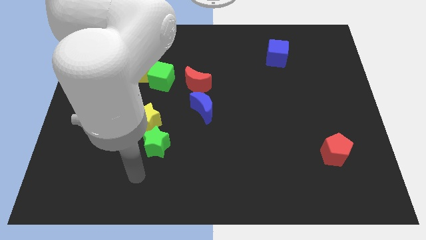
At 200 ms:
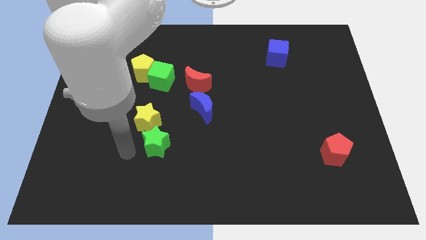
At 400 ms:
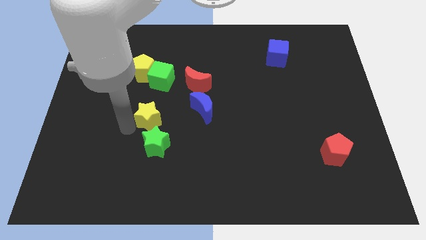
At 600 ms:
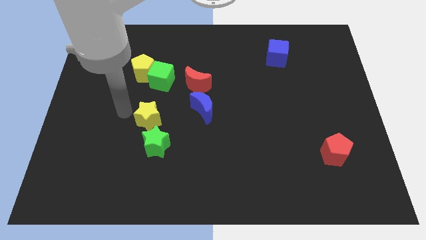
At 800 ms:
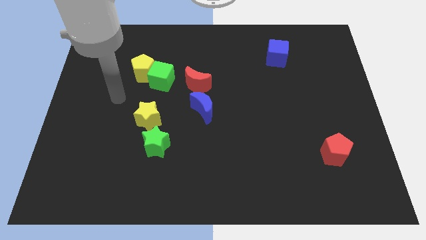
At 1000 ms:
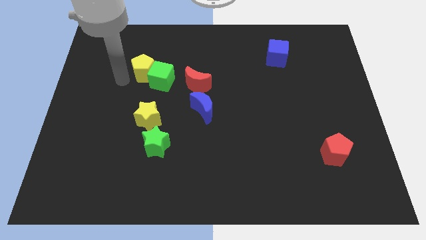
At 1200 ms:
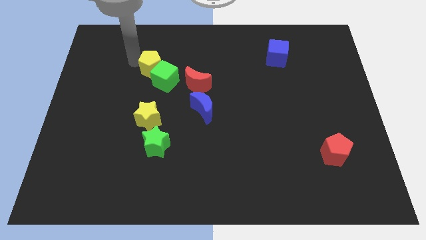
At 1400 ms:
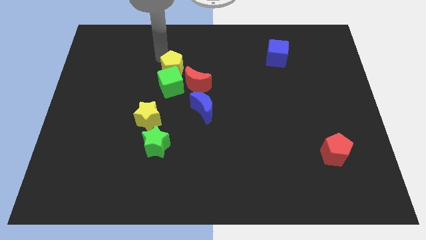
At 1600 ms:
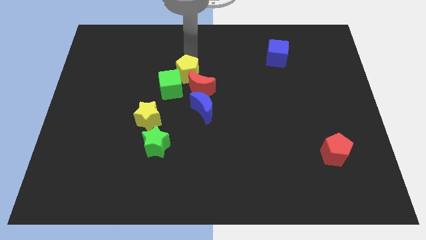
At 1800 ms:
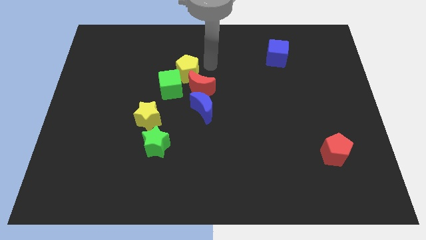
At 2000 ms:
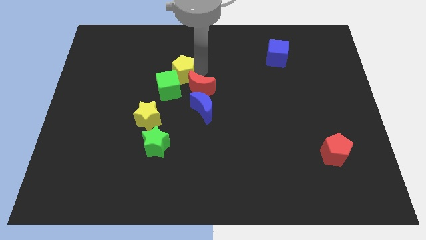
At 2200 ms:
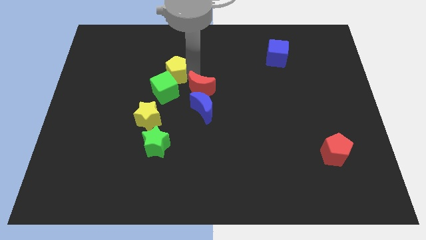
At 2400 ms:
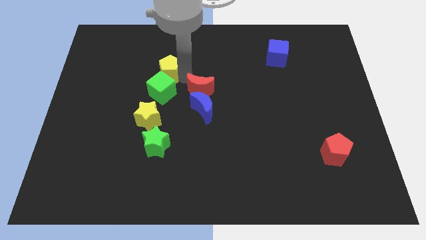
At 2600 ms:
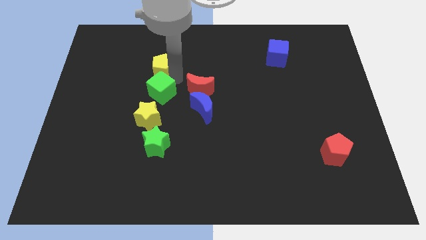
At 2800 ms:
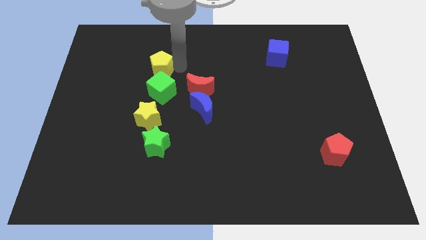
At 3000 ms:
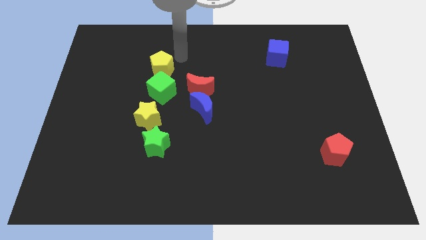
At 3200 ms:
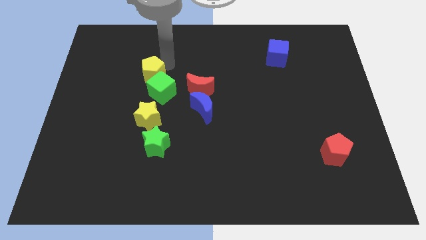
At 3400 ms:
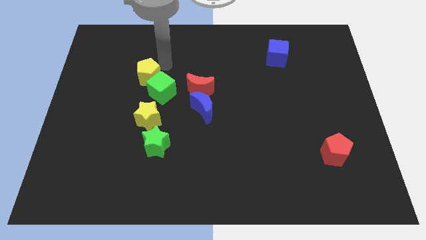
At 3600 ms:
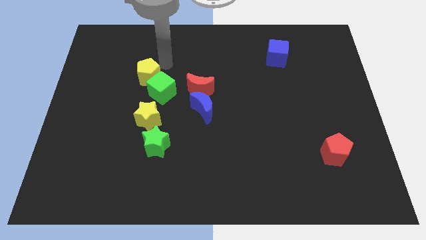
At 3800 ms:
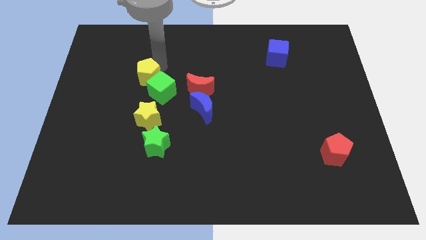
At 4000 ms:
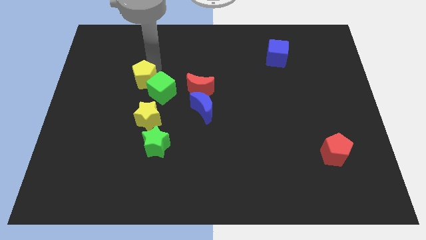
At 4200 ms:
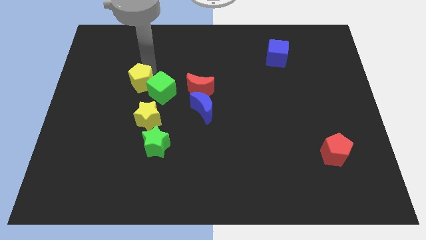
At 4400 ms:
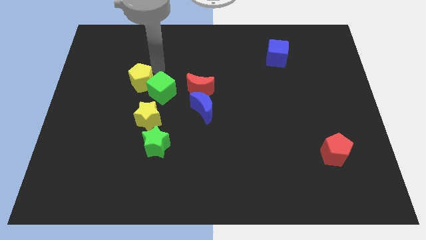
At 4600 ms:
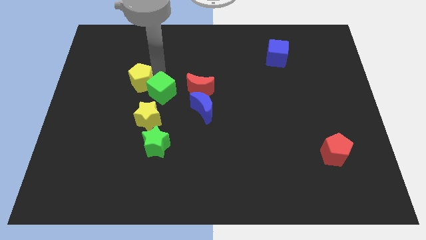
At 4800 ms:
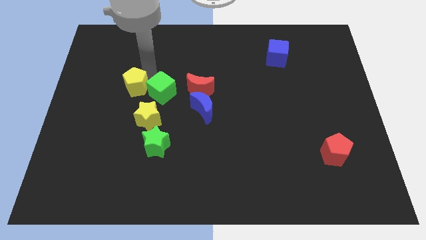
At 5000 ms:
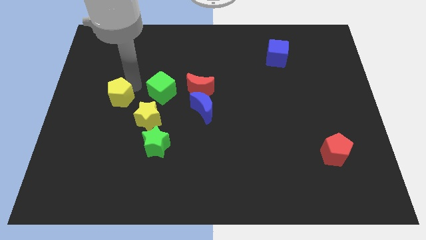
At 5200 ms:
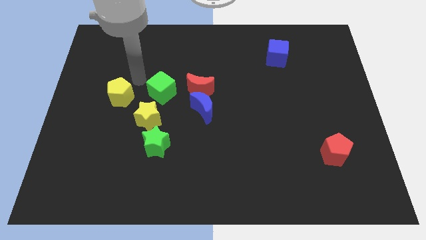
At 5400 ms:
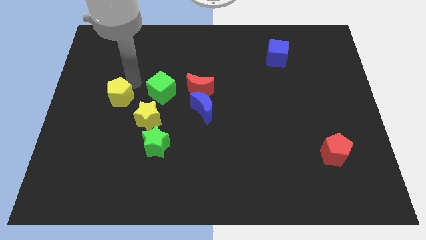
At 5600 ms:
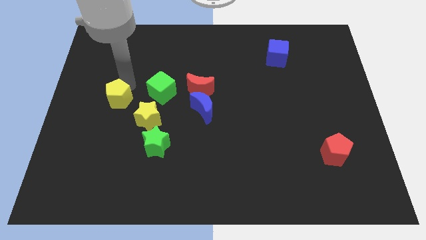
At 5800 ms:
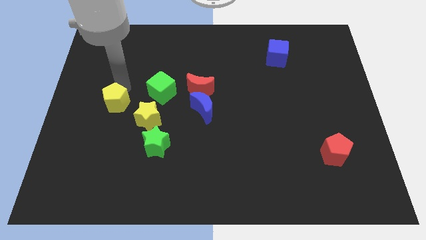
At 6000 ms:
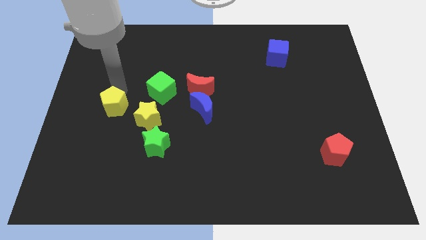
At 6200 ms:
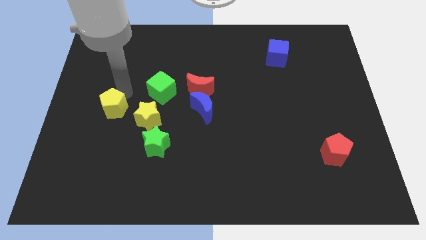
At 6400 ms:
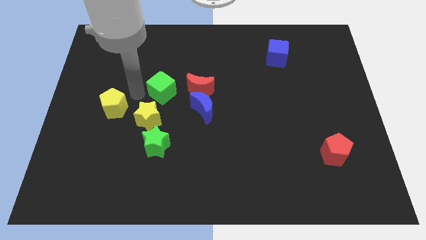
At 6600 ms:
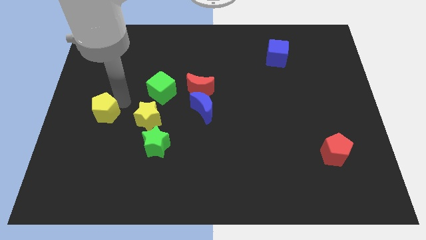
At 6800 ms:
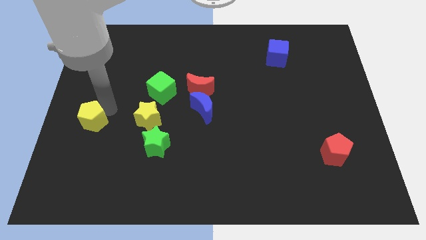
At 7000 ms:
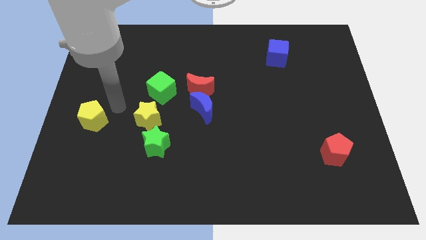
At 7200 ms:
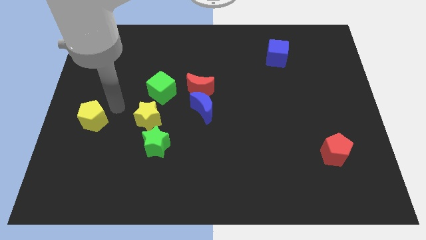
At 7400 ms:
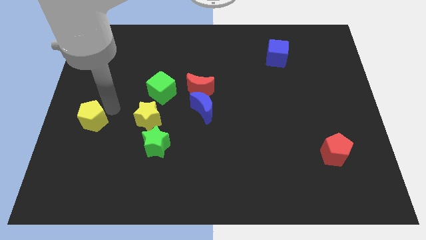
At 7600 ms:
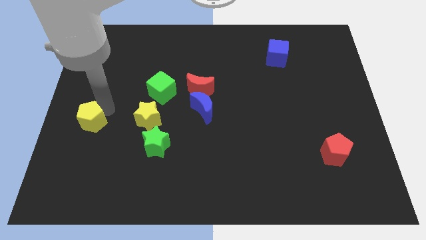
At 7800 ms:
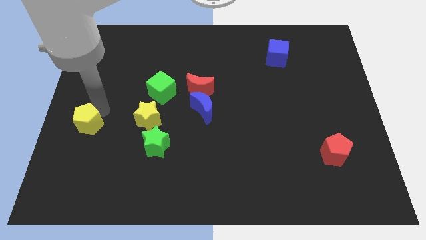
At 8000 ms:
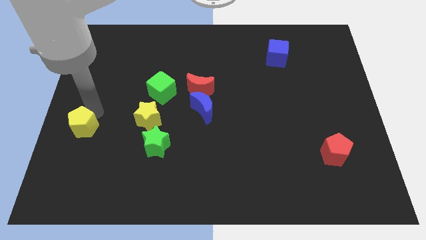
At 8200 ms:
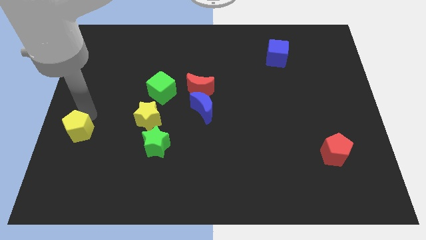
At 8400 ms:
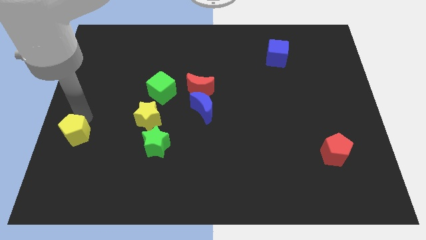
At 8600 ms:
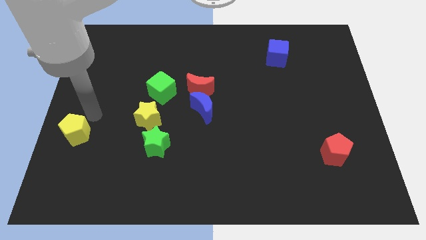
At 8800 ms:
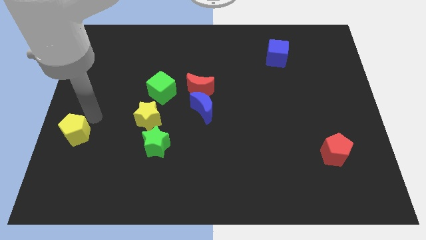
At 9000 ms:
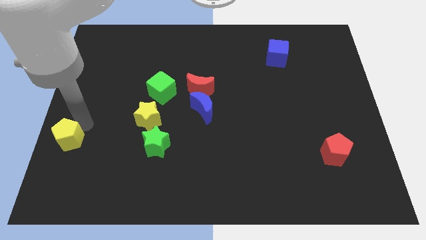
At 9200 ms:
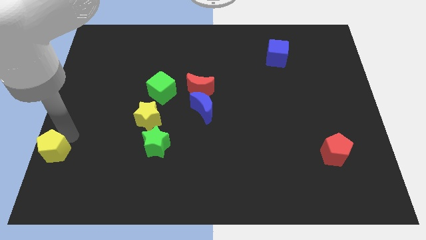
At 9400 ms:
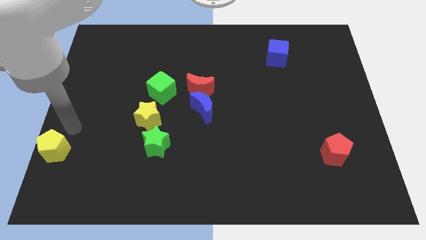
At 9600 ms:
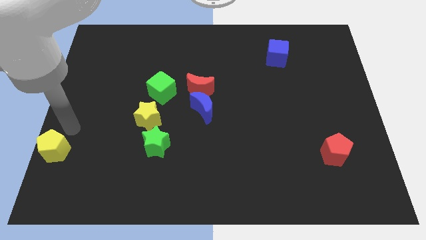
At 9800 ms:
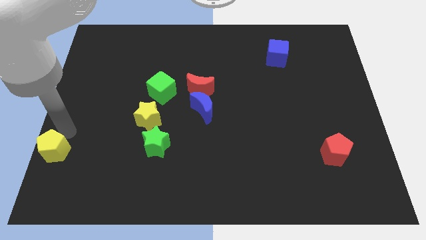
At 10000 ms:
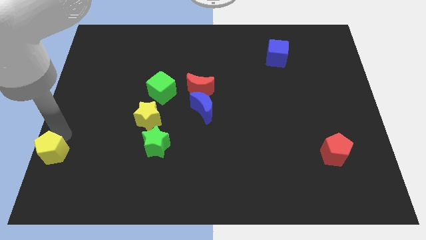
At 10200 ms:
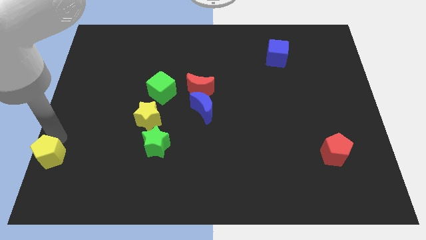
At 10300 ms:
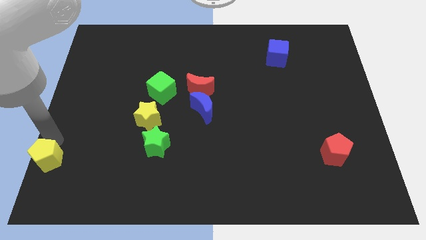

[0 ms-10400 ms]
slide the yellow pentagon to the bottom left of the board

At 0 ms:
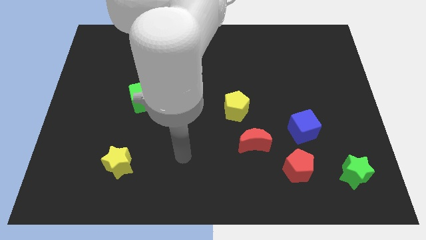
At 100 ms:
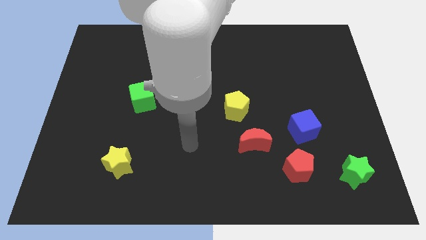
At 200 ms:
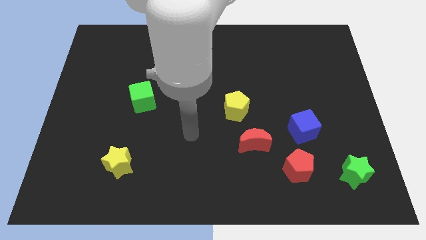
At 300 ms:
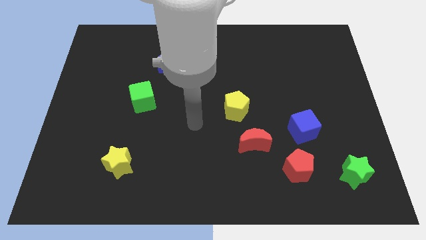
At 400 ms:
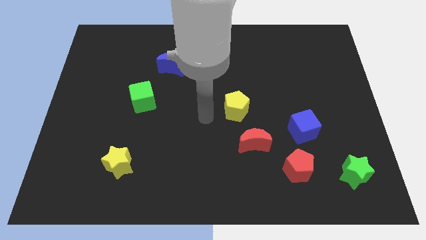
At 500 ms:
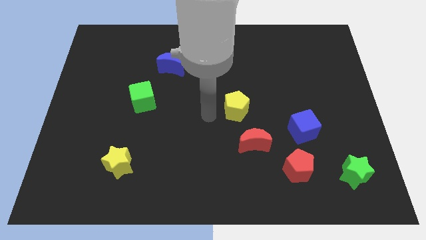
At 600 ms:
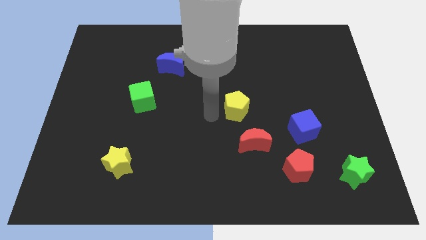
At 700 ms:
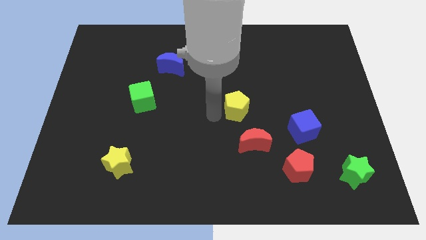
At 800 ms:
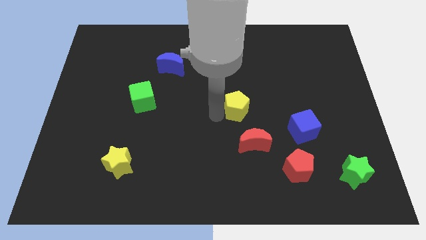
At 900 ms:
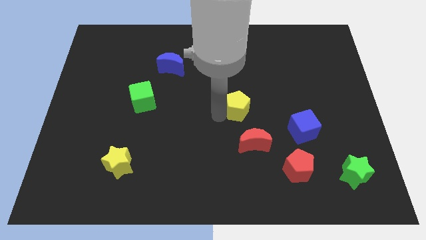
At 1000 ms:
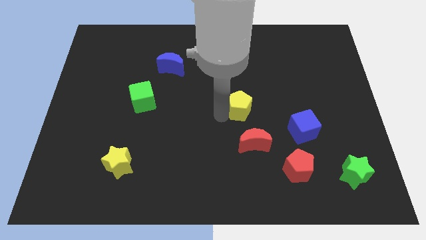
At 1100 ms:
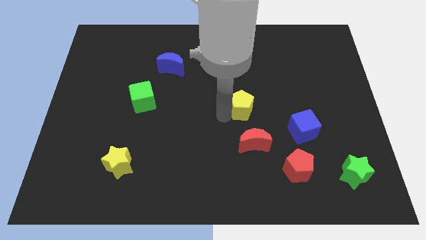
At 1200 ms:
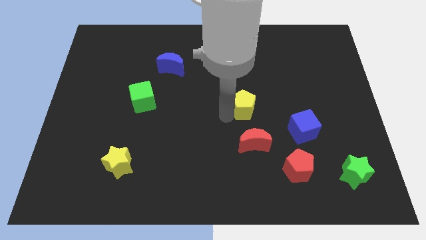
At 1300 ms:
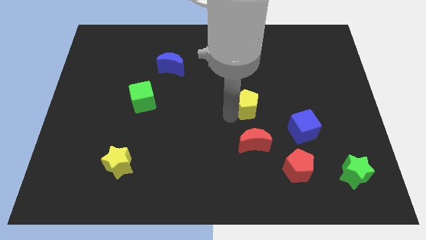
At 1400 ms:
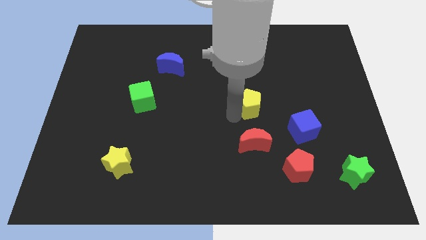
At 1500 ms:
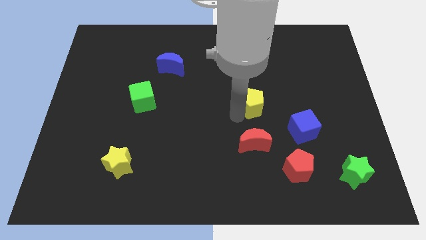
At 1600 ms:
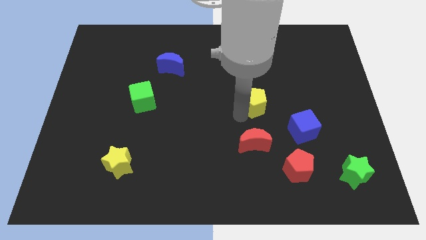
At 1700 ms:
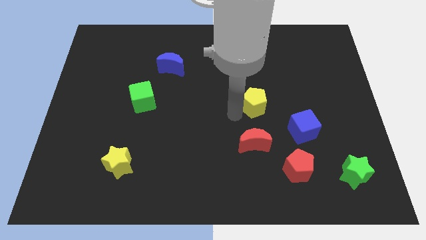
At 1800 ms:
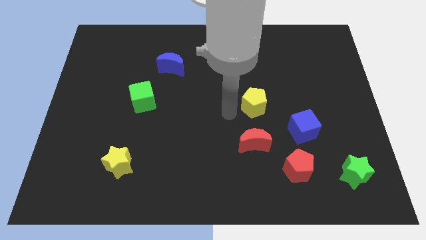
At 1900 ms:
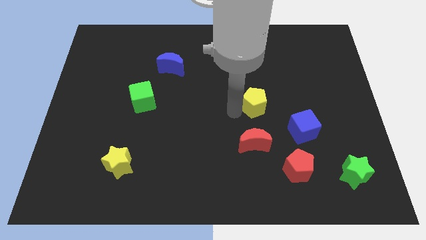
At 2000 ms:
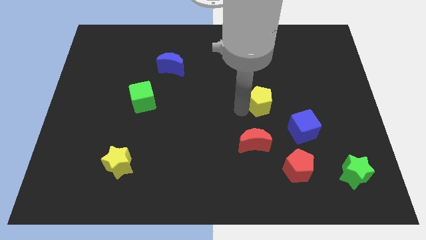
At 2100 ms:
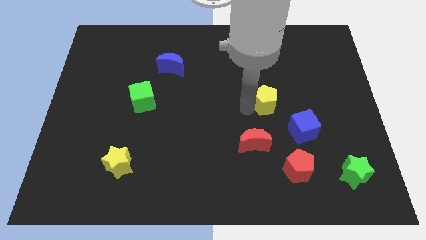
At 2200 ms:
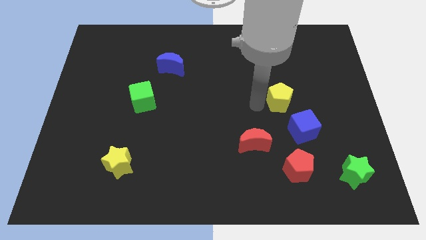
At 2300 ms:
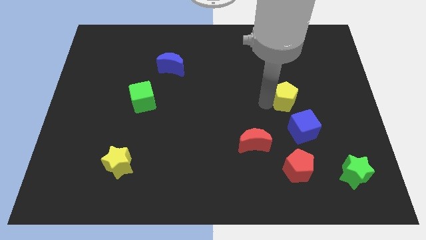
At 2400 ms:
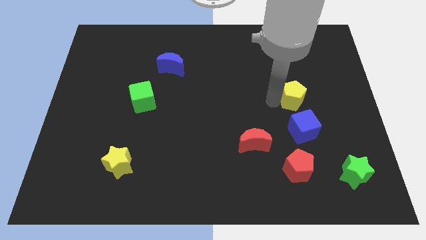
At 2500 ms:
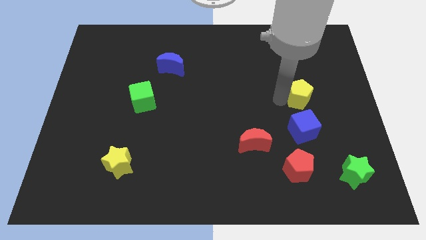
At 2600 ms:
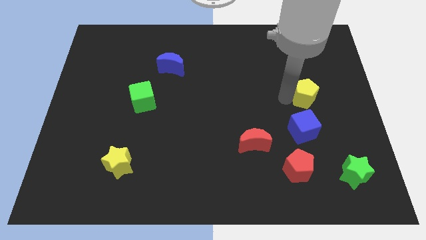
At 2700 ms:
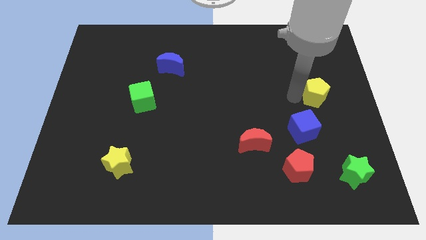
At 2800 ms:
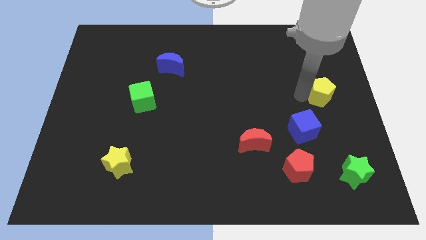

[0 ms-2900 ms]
move the yellow pentagon to the center right
